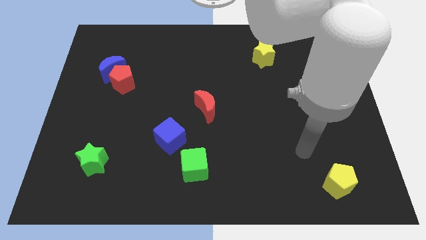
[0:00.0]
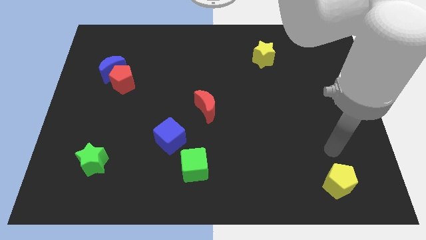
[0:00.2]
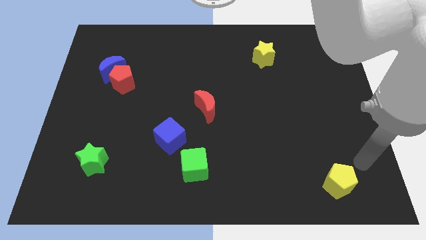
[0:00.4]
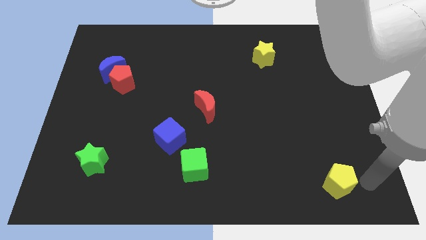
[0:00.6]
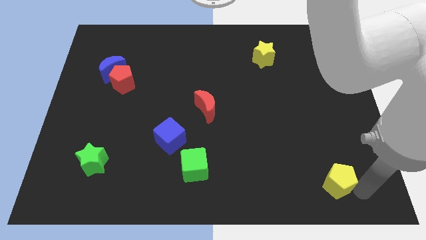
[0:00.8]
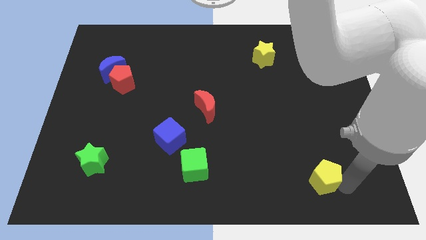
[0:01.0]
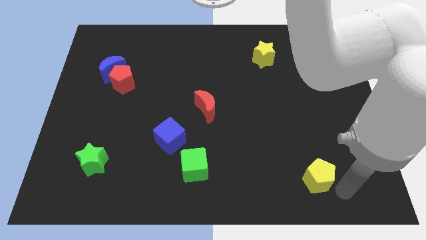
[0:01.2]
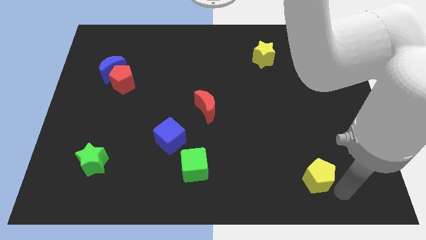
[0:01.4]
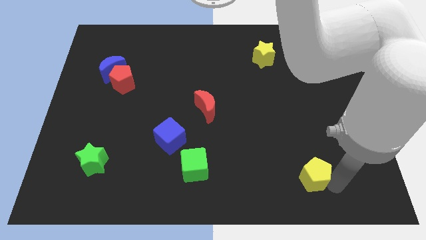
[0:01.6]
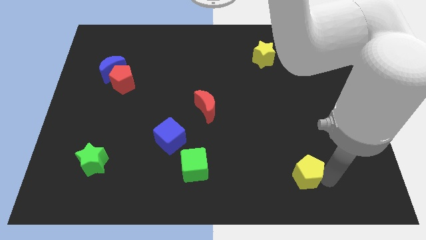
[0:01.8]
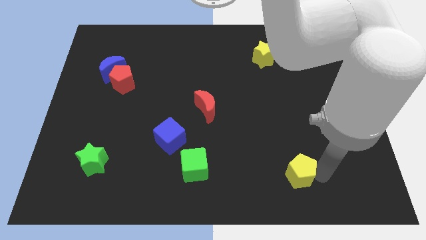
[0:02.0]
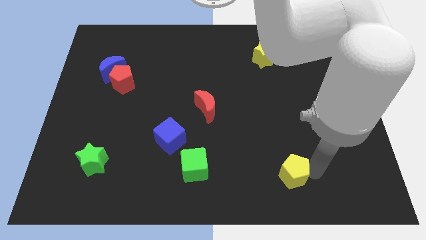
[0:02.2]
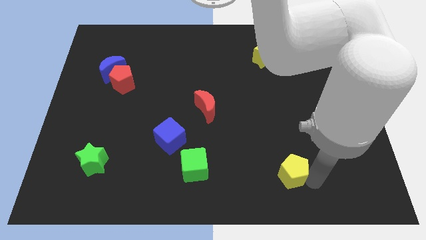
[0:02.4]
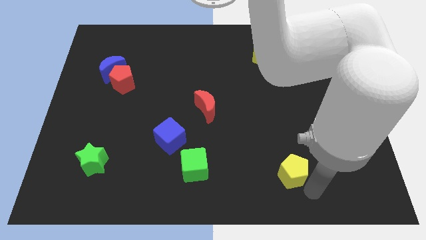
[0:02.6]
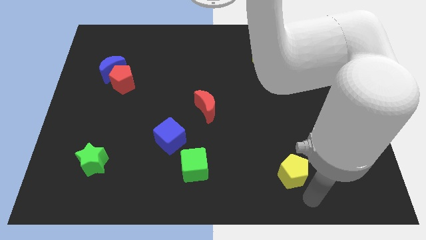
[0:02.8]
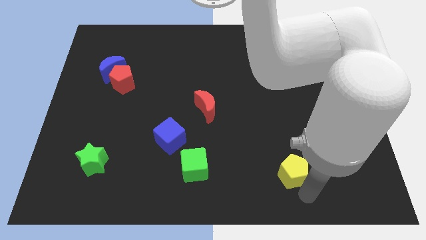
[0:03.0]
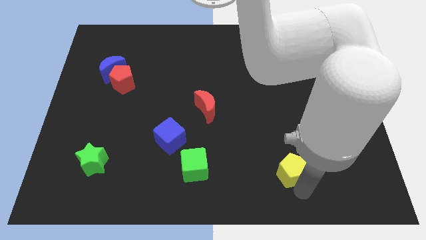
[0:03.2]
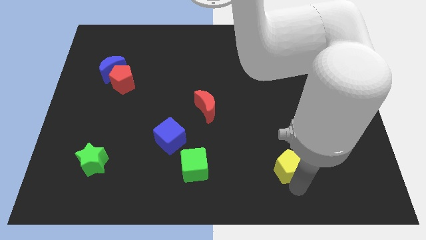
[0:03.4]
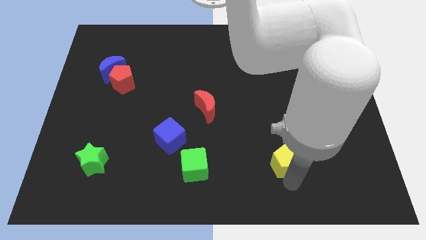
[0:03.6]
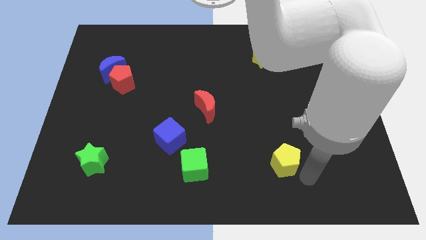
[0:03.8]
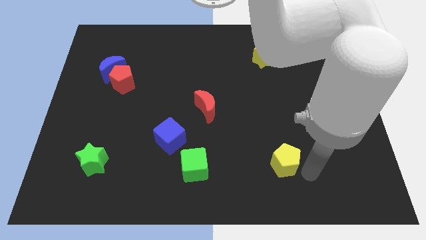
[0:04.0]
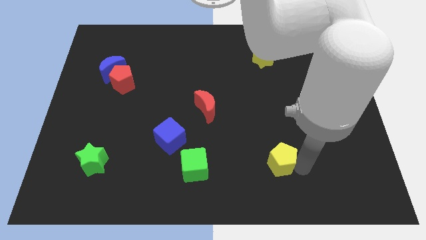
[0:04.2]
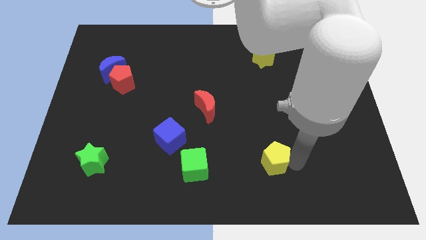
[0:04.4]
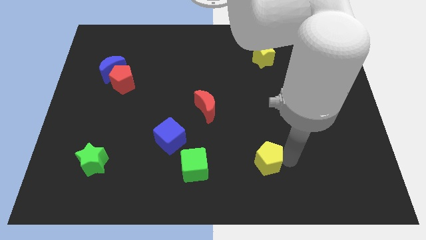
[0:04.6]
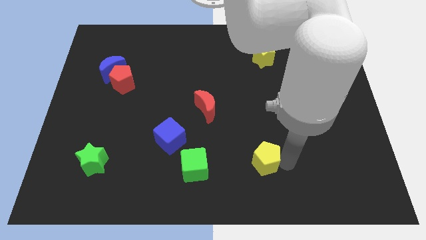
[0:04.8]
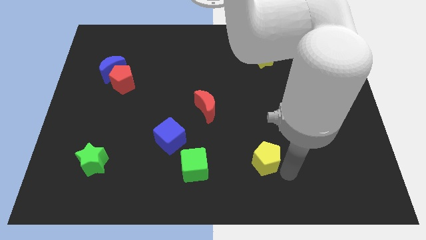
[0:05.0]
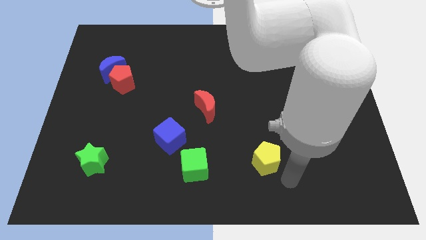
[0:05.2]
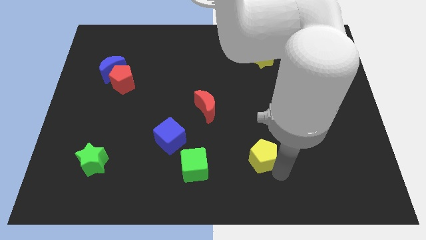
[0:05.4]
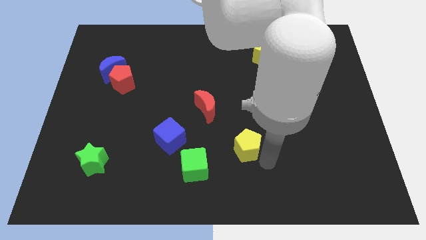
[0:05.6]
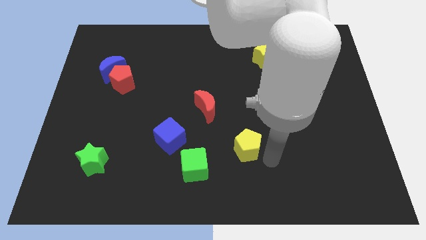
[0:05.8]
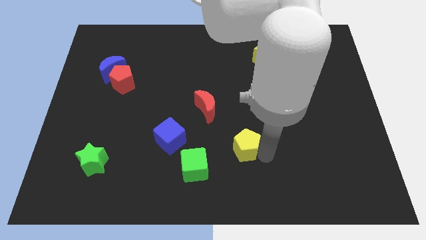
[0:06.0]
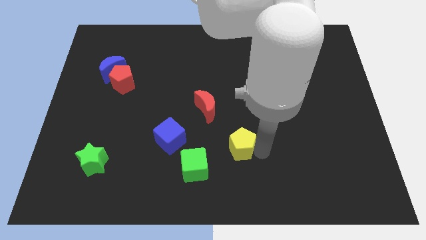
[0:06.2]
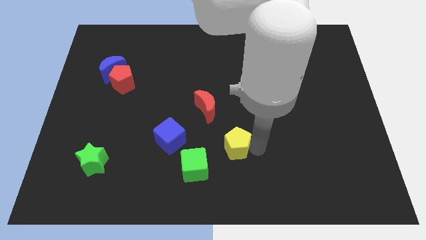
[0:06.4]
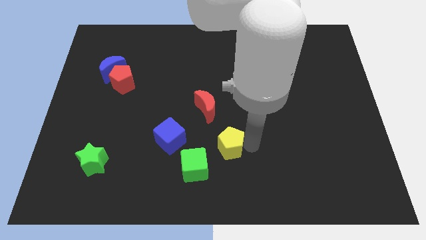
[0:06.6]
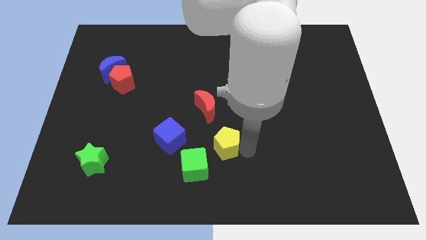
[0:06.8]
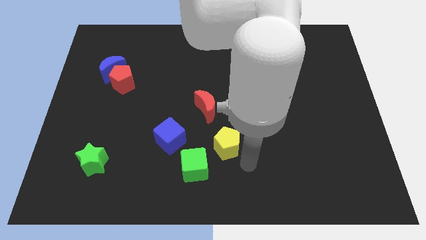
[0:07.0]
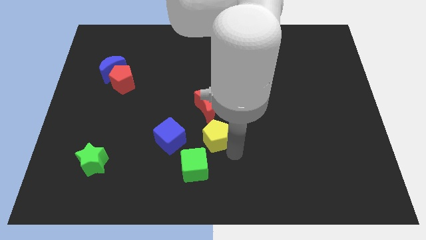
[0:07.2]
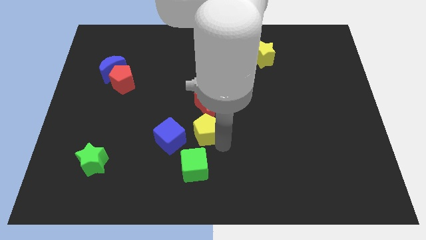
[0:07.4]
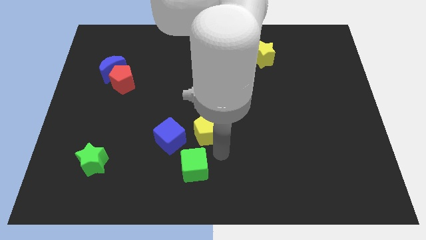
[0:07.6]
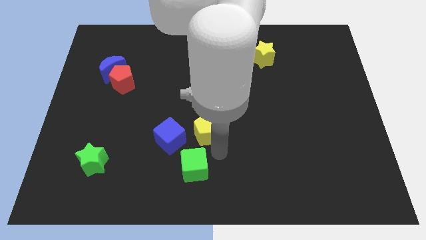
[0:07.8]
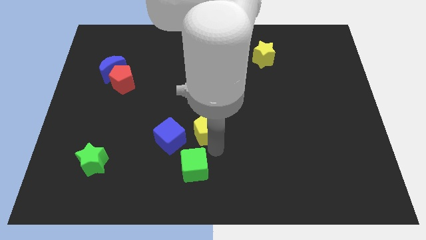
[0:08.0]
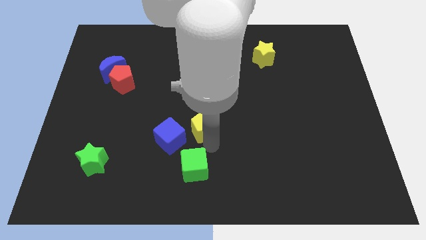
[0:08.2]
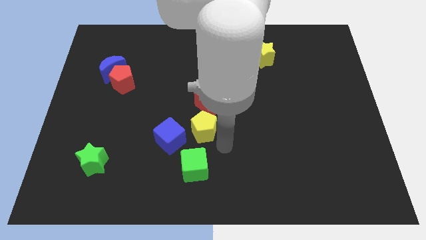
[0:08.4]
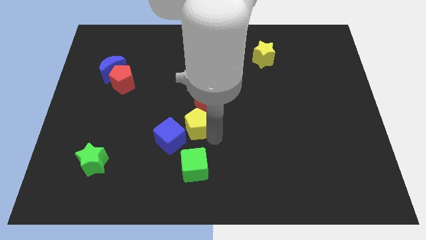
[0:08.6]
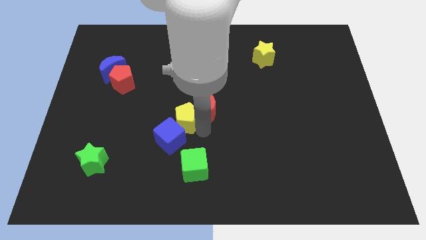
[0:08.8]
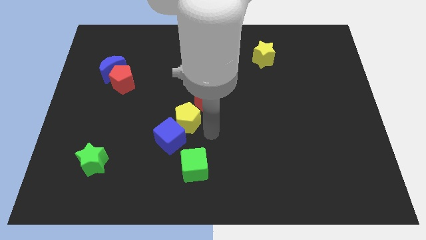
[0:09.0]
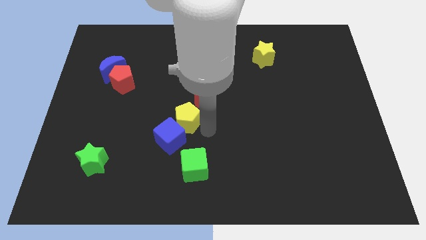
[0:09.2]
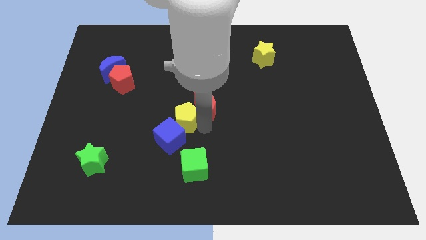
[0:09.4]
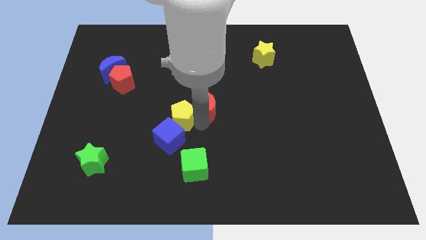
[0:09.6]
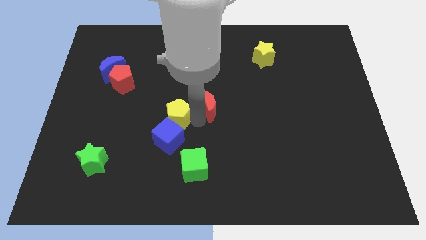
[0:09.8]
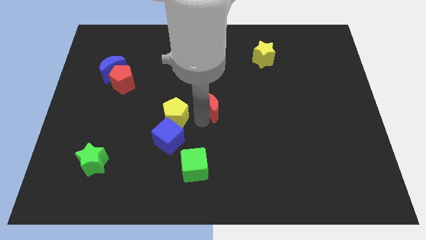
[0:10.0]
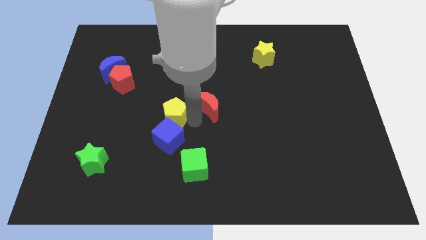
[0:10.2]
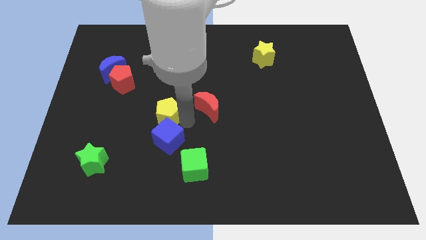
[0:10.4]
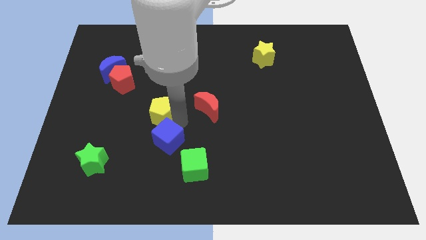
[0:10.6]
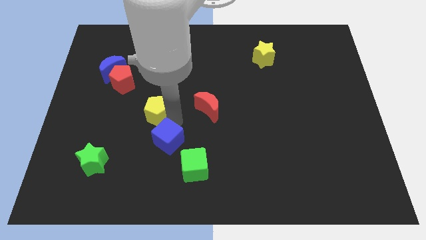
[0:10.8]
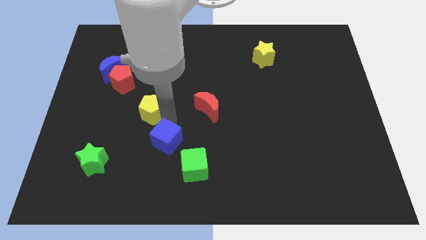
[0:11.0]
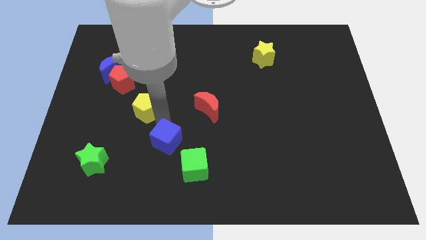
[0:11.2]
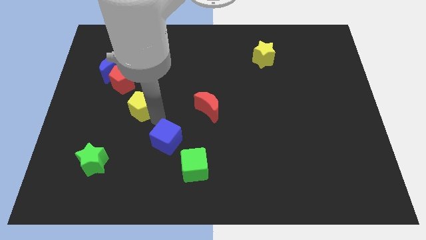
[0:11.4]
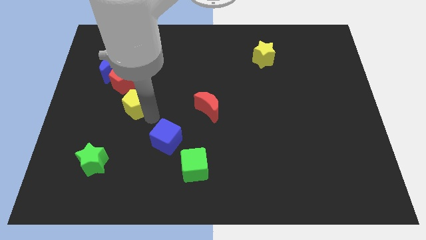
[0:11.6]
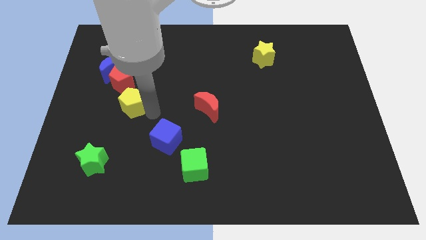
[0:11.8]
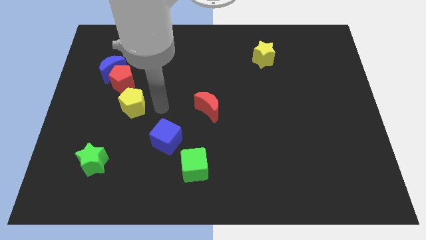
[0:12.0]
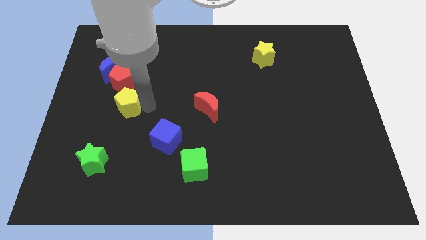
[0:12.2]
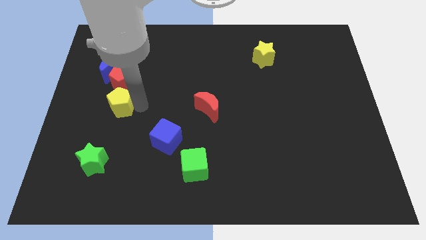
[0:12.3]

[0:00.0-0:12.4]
push the yellow pentagon to the bottom of the blue moon

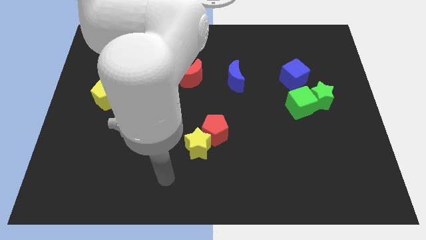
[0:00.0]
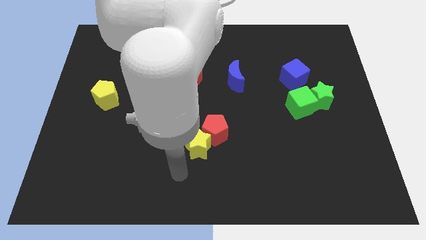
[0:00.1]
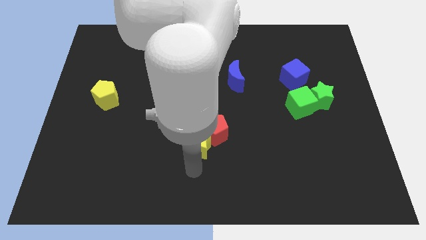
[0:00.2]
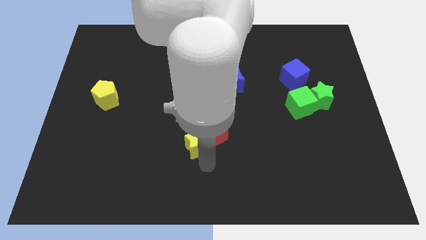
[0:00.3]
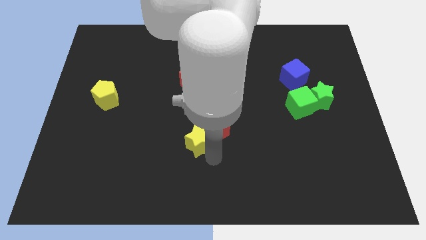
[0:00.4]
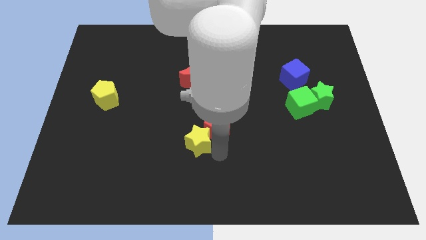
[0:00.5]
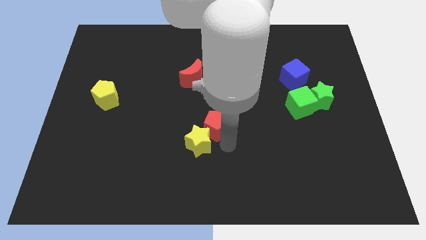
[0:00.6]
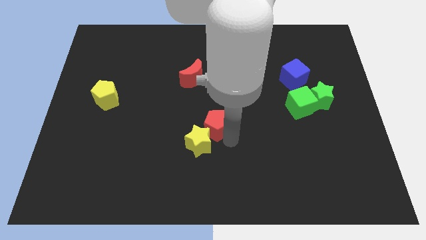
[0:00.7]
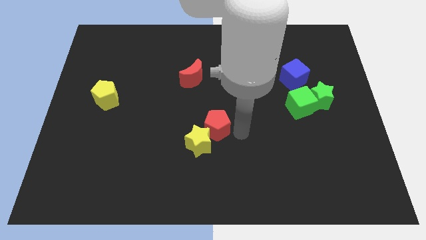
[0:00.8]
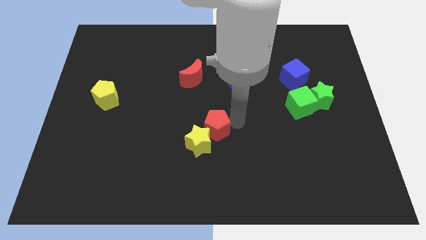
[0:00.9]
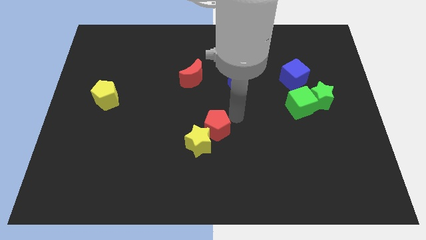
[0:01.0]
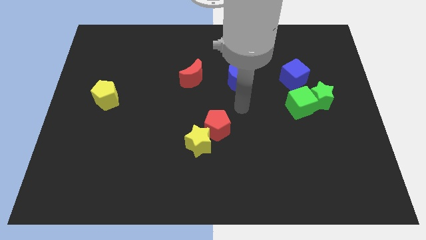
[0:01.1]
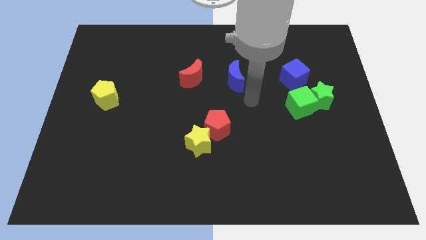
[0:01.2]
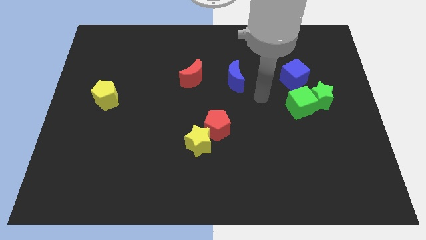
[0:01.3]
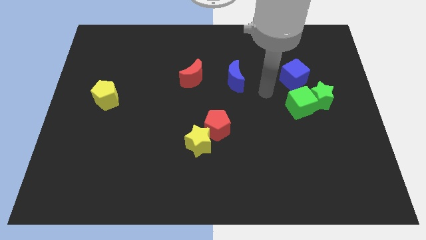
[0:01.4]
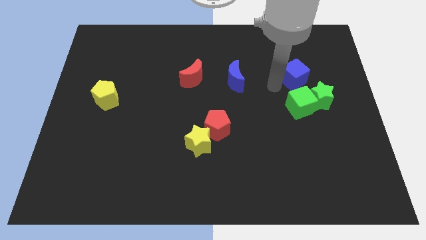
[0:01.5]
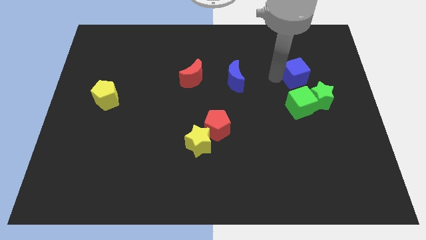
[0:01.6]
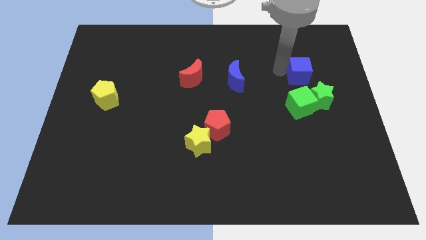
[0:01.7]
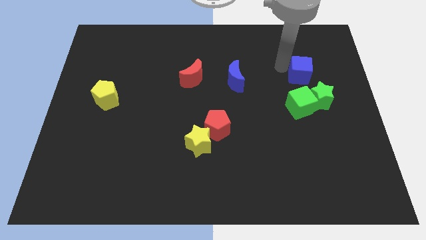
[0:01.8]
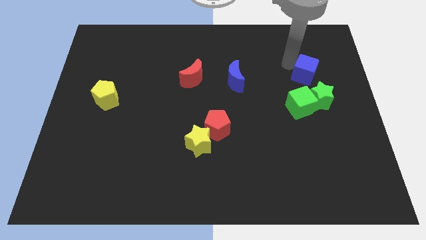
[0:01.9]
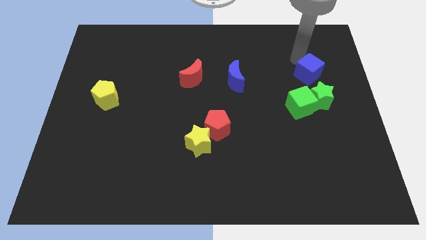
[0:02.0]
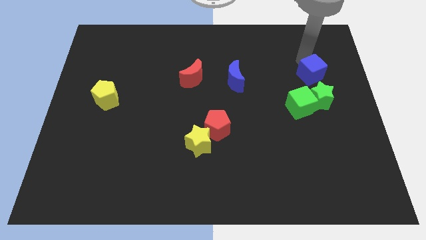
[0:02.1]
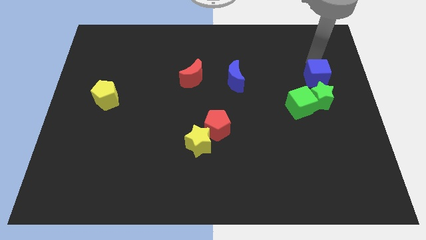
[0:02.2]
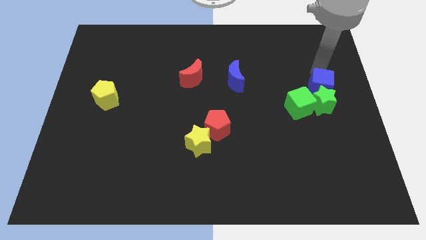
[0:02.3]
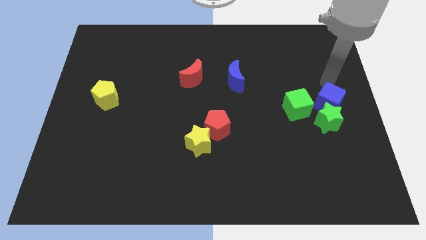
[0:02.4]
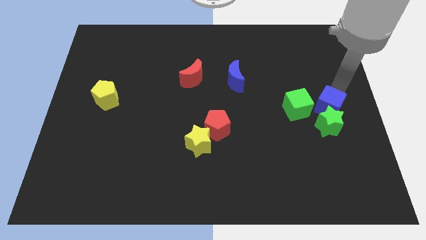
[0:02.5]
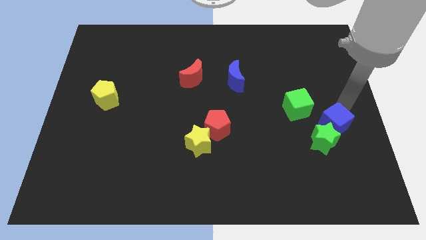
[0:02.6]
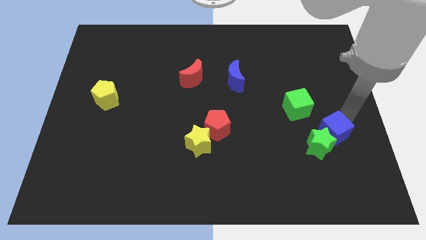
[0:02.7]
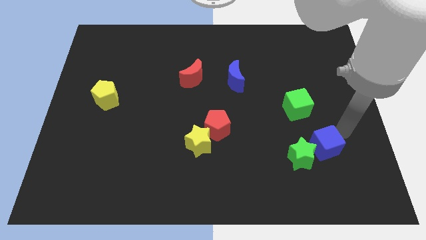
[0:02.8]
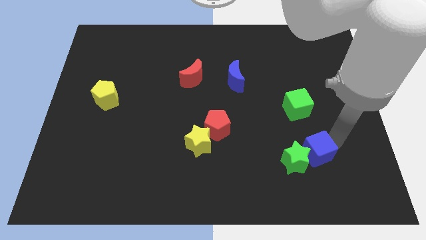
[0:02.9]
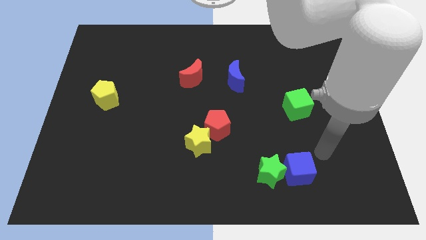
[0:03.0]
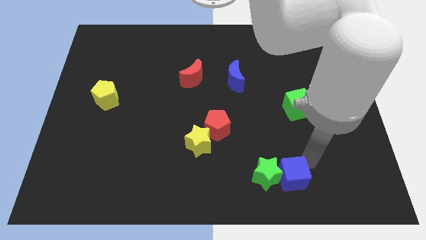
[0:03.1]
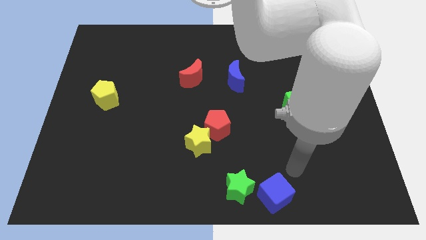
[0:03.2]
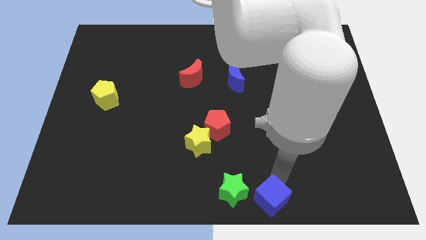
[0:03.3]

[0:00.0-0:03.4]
push the green star to the bottom side of the red pentagon
